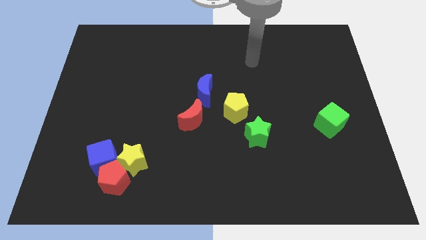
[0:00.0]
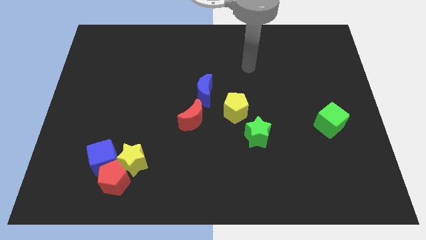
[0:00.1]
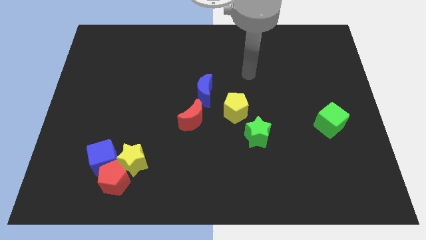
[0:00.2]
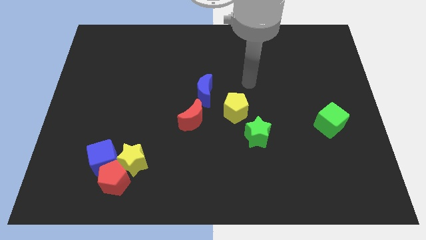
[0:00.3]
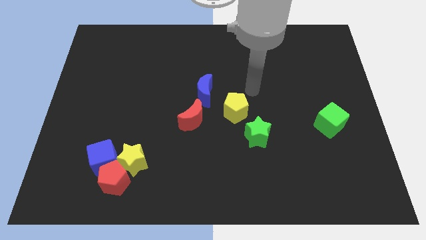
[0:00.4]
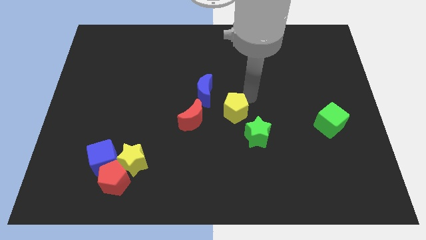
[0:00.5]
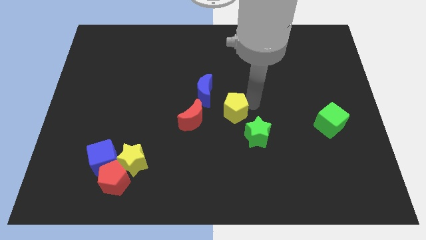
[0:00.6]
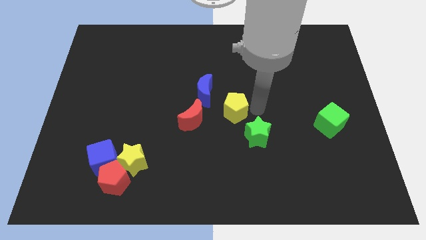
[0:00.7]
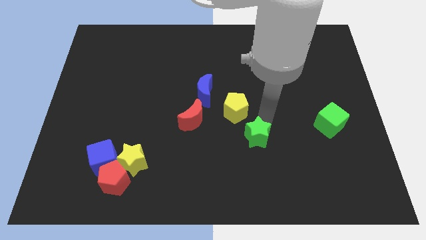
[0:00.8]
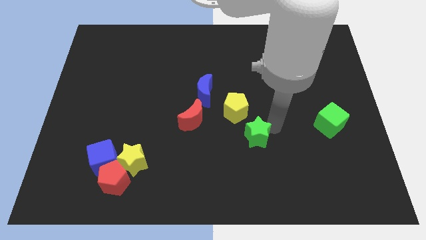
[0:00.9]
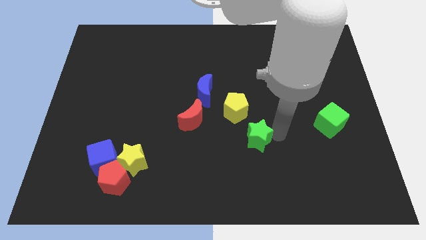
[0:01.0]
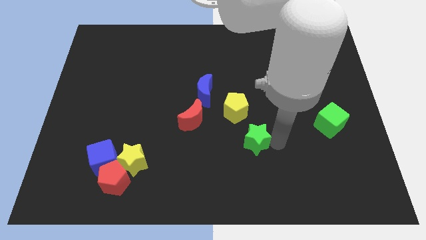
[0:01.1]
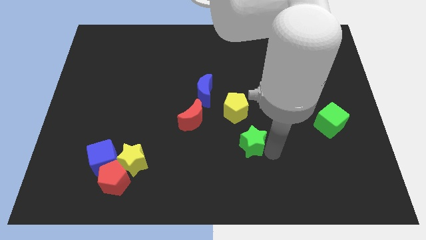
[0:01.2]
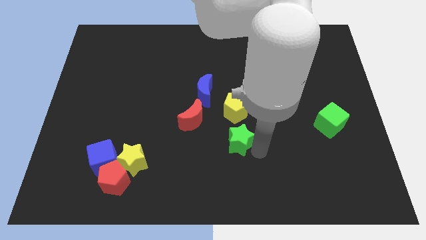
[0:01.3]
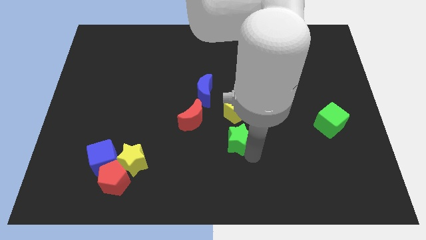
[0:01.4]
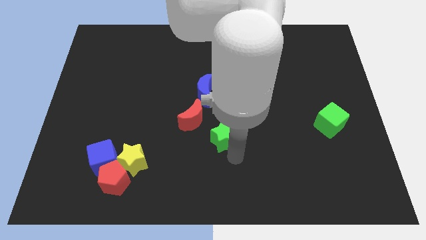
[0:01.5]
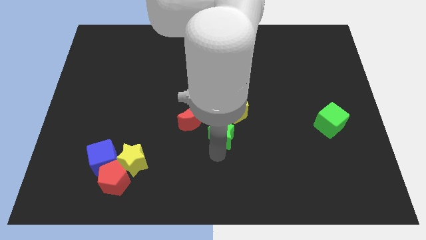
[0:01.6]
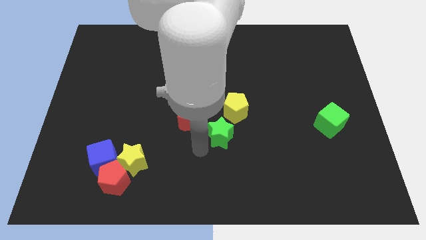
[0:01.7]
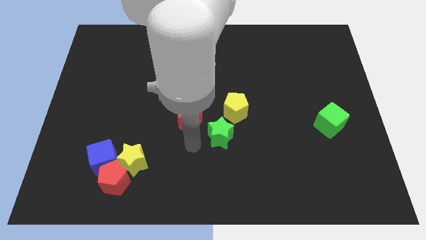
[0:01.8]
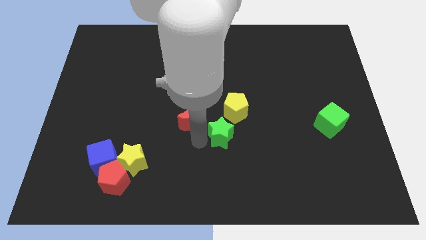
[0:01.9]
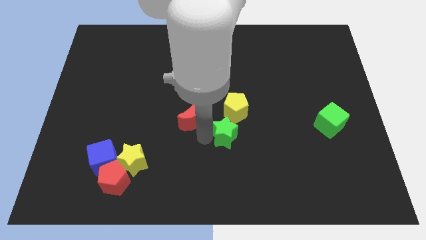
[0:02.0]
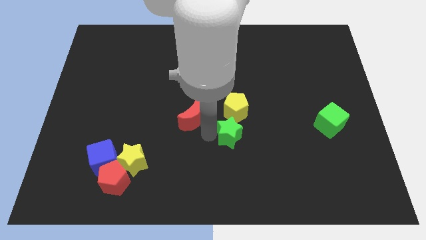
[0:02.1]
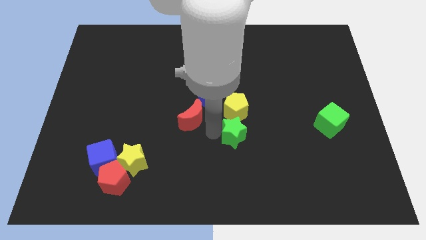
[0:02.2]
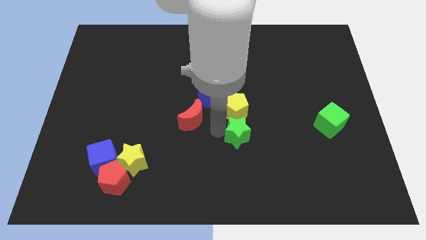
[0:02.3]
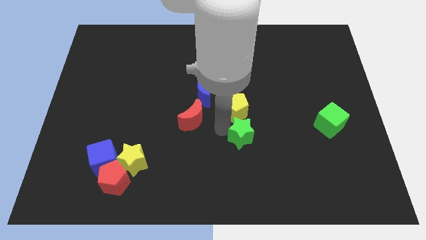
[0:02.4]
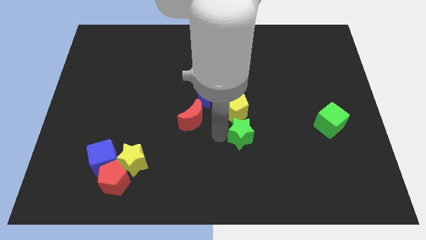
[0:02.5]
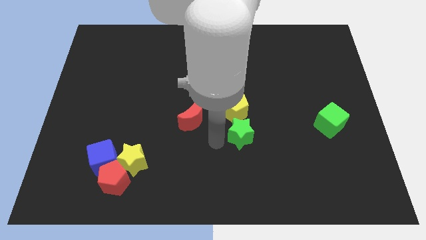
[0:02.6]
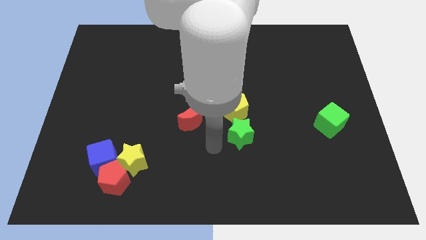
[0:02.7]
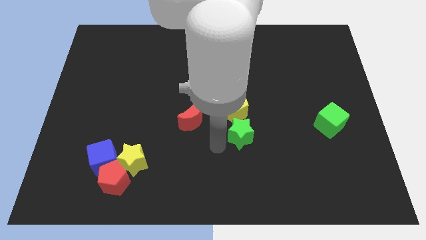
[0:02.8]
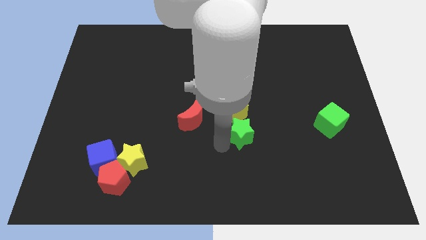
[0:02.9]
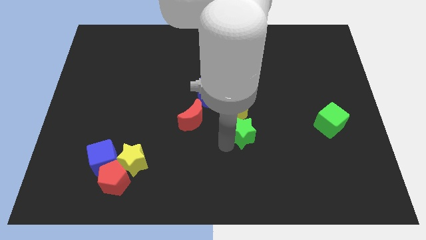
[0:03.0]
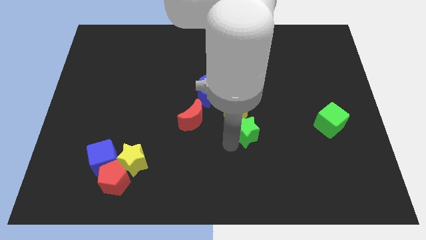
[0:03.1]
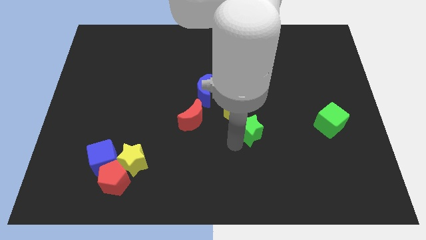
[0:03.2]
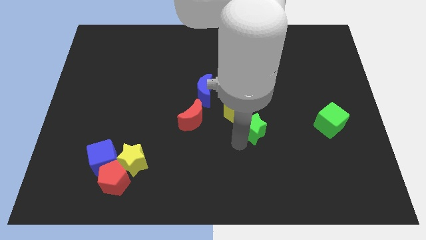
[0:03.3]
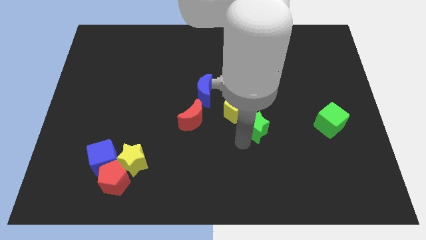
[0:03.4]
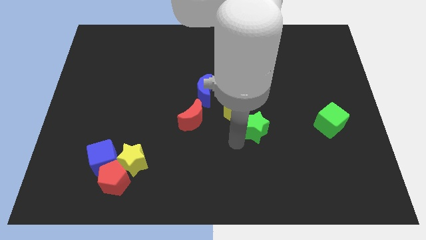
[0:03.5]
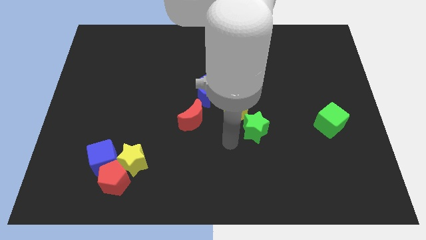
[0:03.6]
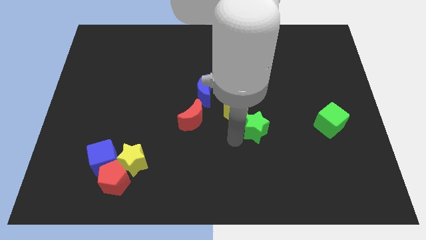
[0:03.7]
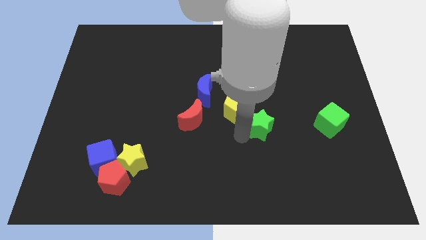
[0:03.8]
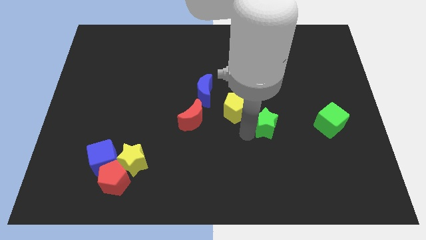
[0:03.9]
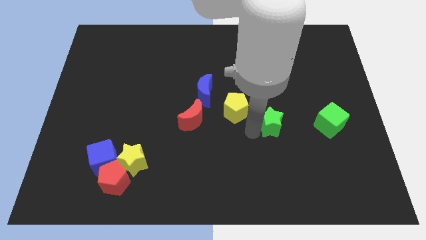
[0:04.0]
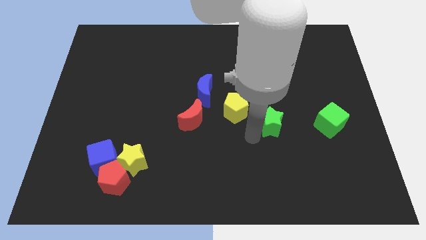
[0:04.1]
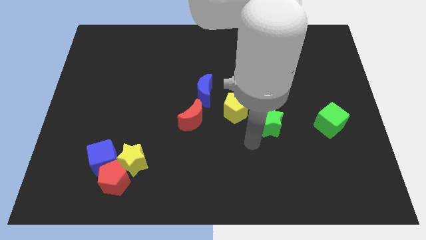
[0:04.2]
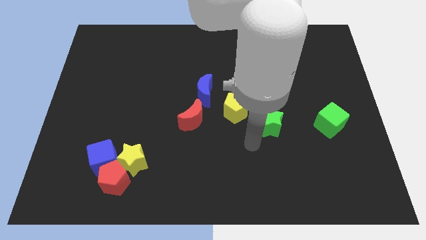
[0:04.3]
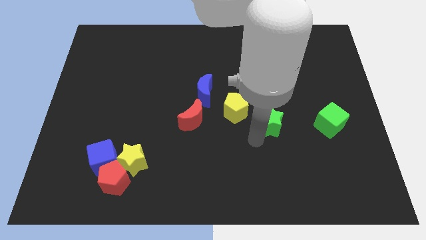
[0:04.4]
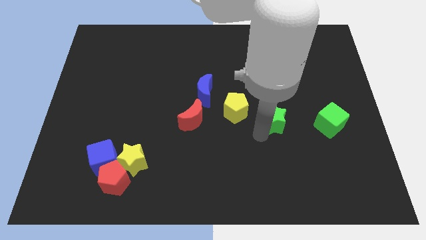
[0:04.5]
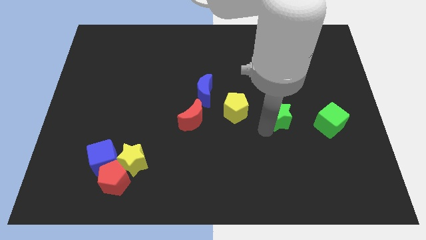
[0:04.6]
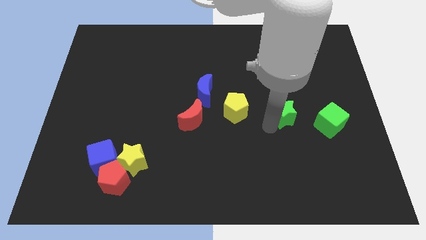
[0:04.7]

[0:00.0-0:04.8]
push the green star a bit up and right

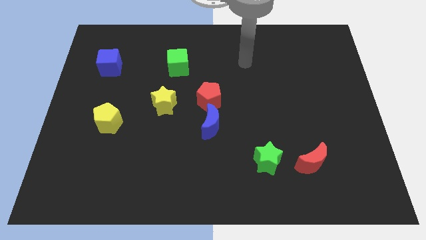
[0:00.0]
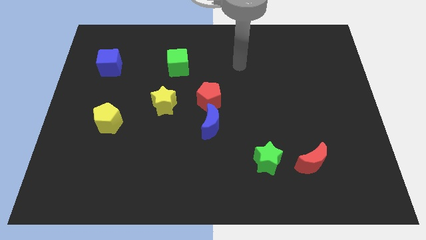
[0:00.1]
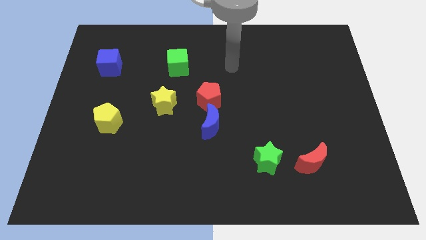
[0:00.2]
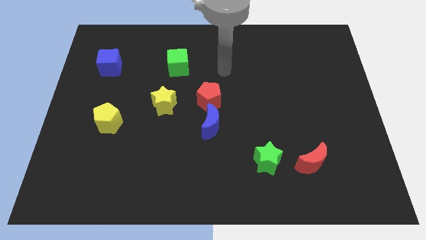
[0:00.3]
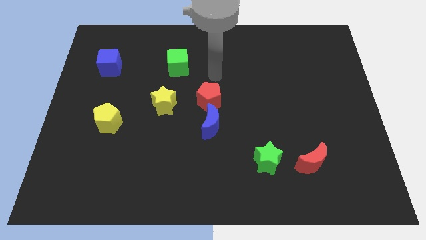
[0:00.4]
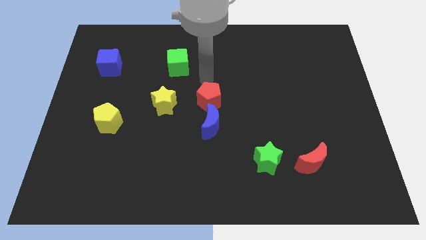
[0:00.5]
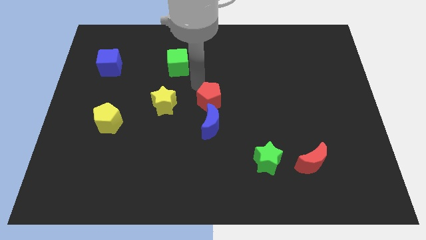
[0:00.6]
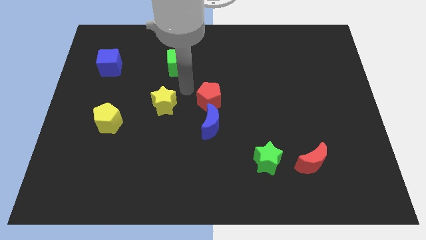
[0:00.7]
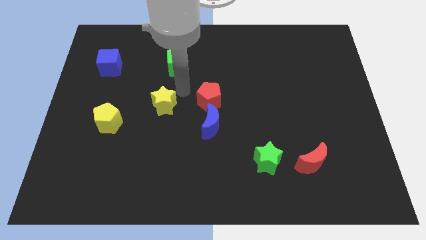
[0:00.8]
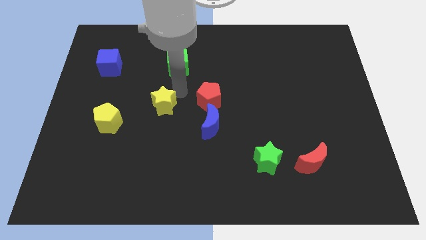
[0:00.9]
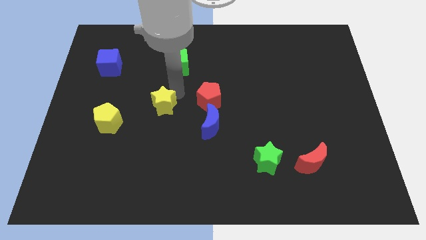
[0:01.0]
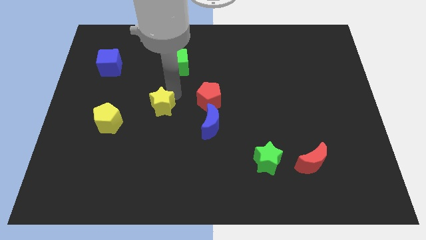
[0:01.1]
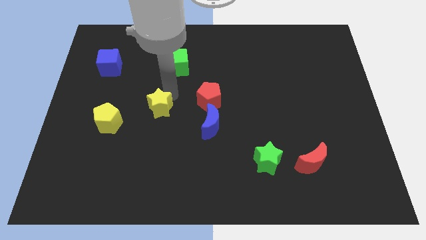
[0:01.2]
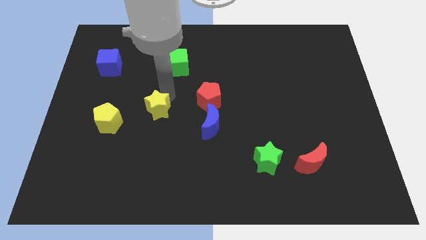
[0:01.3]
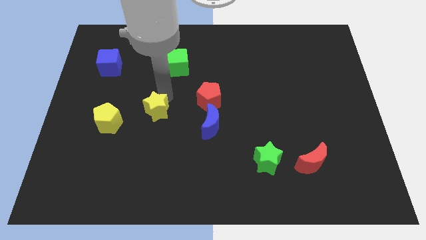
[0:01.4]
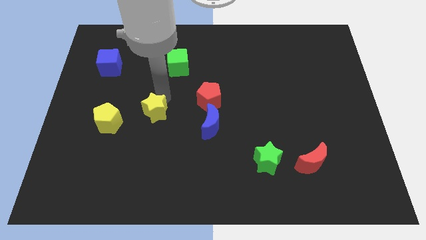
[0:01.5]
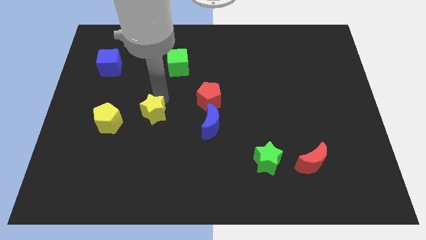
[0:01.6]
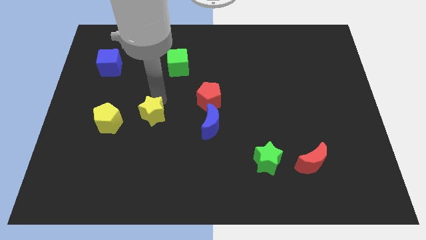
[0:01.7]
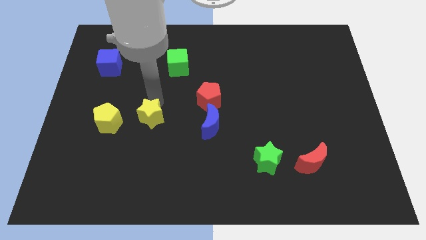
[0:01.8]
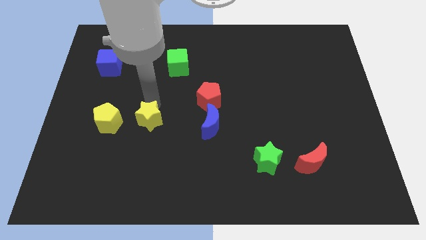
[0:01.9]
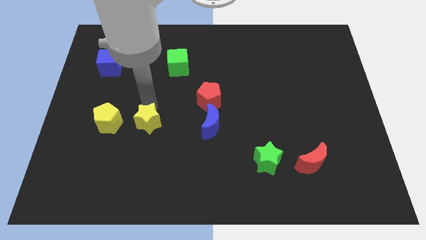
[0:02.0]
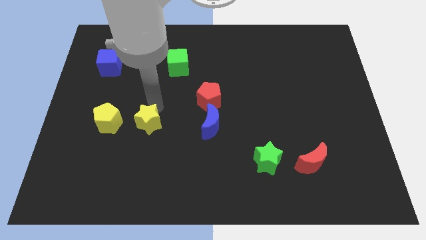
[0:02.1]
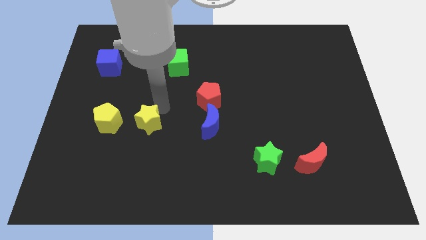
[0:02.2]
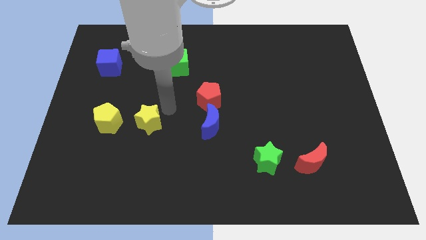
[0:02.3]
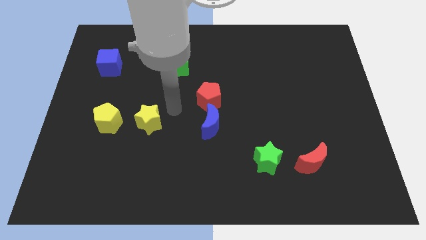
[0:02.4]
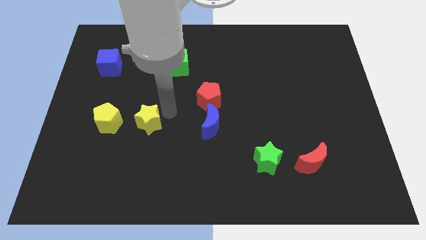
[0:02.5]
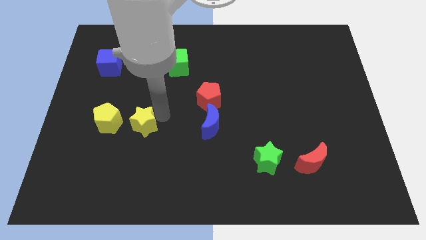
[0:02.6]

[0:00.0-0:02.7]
slightly slide the yellow star diagonally down and left

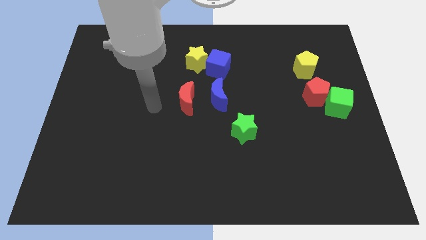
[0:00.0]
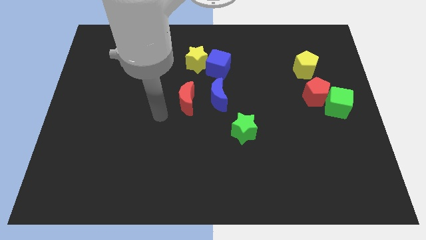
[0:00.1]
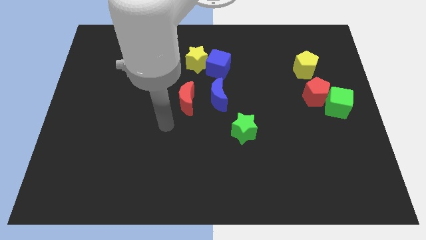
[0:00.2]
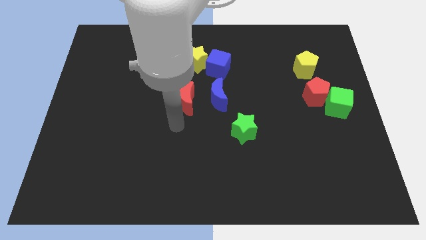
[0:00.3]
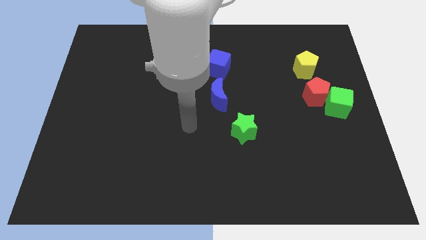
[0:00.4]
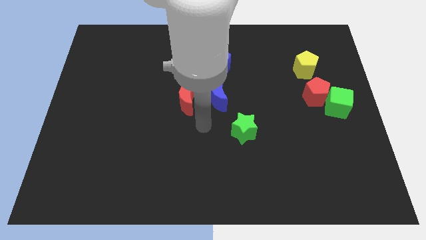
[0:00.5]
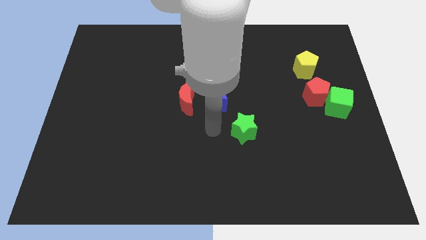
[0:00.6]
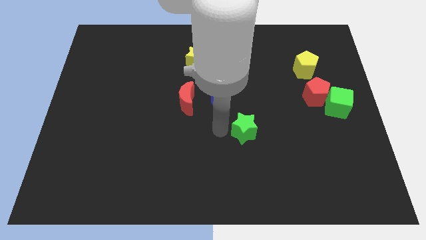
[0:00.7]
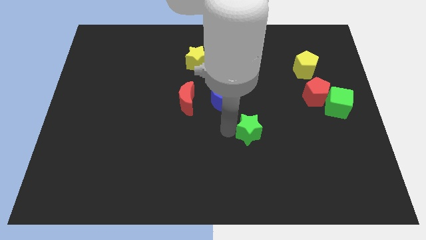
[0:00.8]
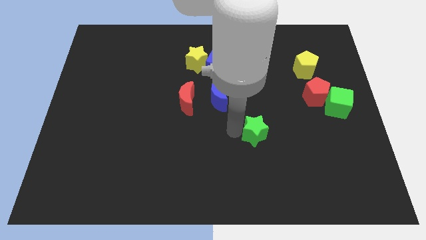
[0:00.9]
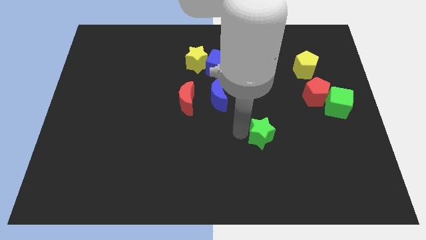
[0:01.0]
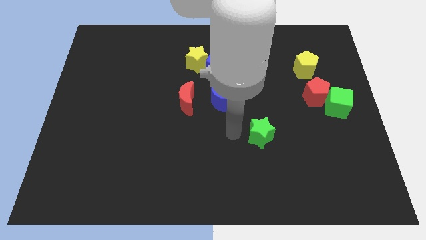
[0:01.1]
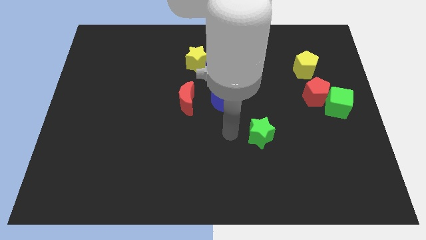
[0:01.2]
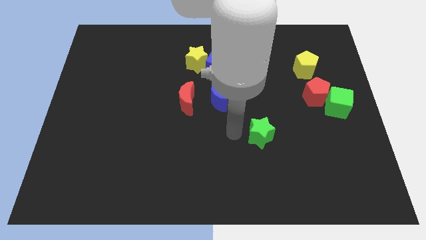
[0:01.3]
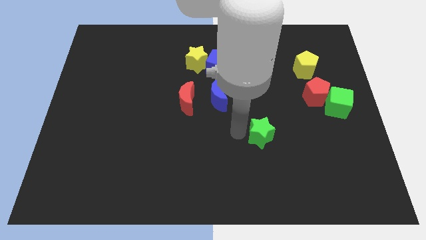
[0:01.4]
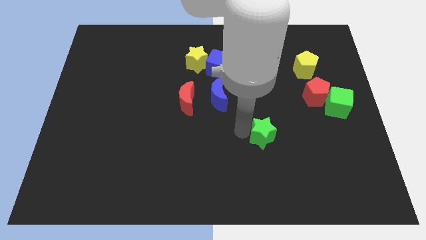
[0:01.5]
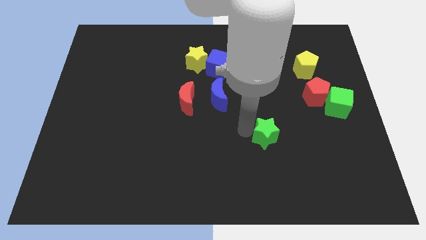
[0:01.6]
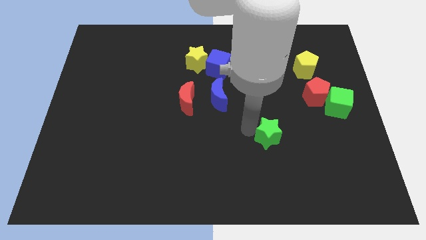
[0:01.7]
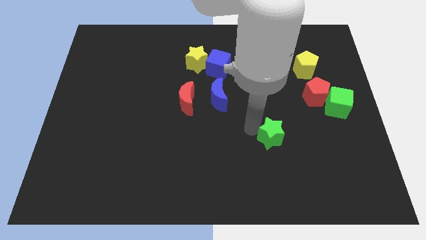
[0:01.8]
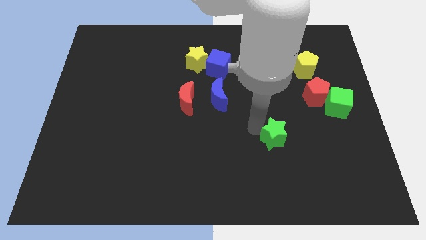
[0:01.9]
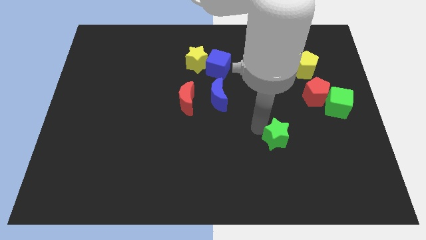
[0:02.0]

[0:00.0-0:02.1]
slightly push the green star right
